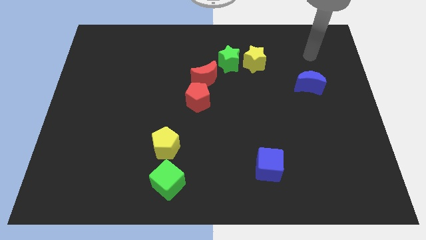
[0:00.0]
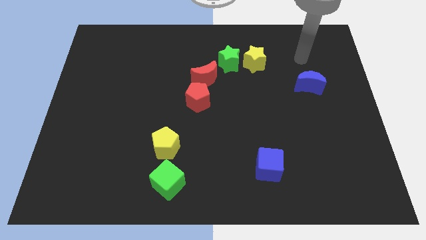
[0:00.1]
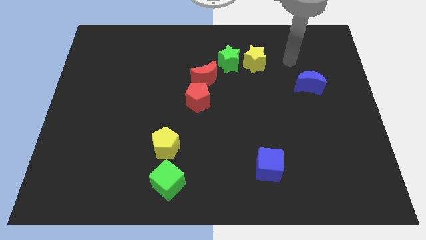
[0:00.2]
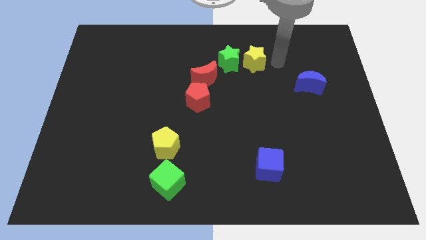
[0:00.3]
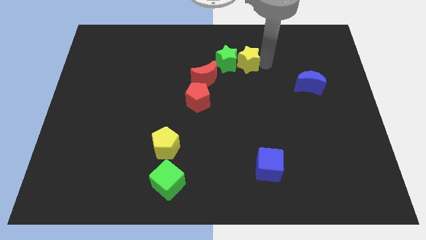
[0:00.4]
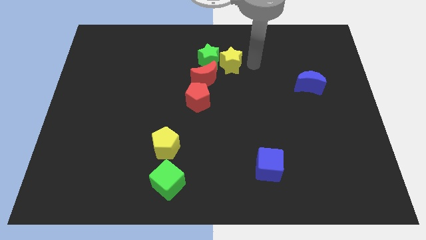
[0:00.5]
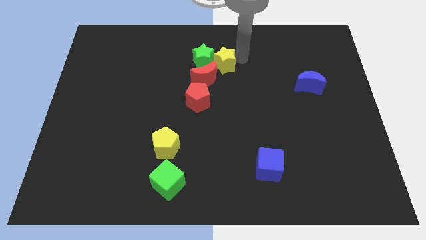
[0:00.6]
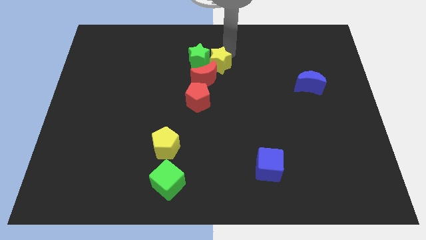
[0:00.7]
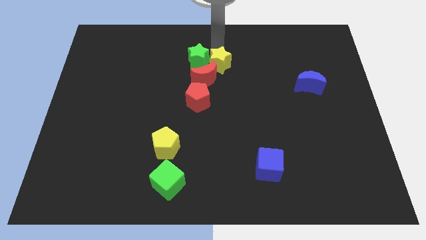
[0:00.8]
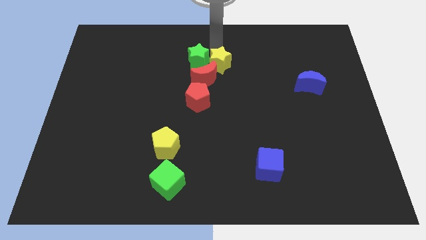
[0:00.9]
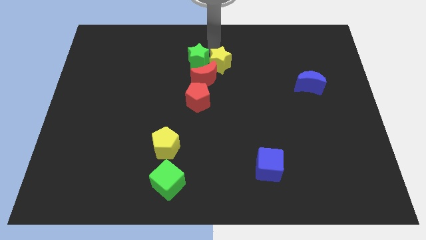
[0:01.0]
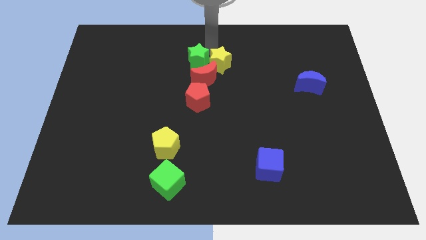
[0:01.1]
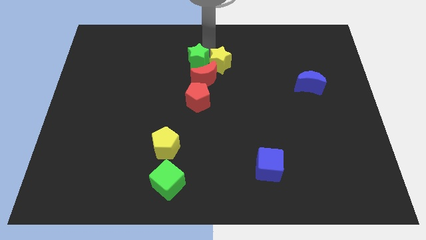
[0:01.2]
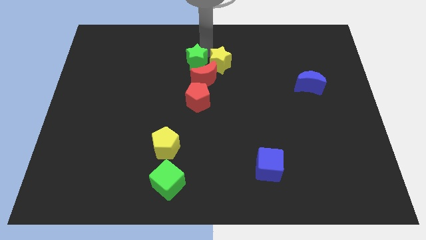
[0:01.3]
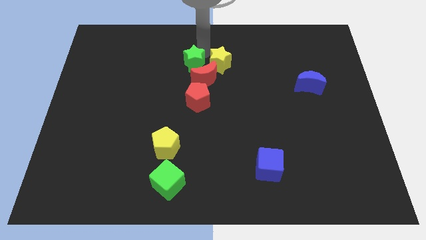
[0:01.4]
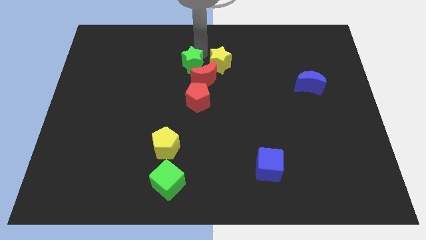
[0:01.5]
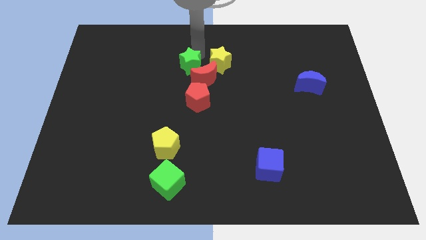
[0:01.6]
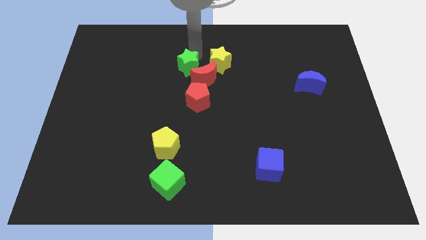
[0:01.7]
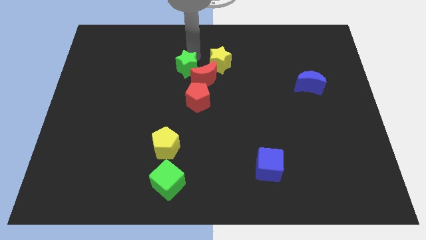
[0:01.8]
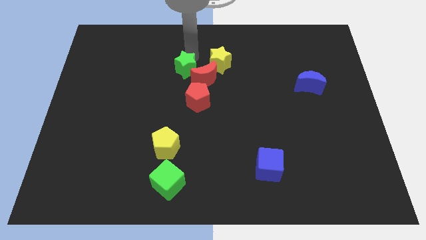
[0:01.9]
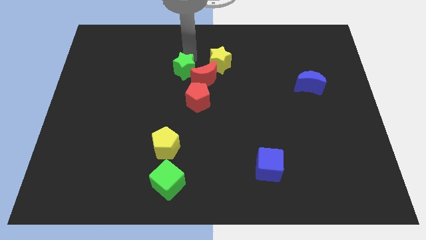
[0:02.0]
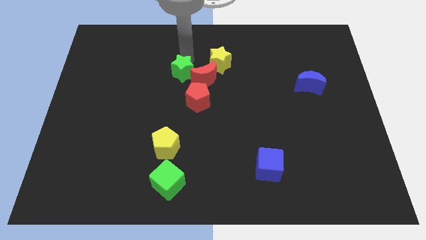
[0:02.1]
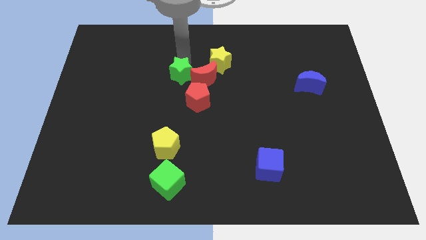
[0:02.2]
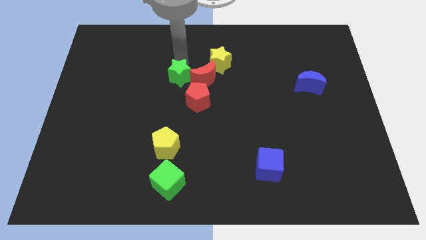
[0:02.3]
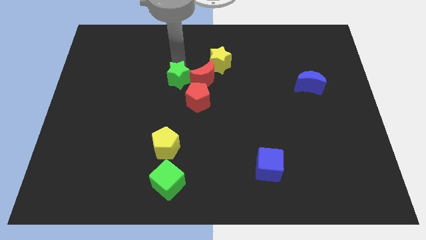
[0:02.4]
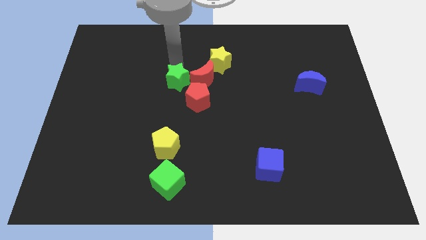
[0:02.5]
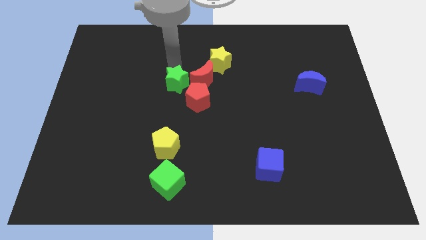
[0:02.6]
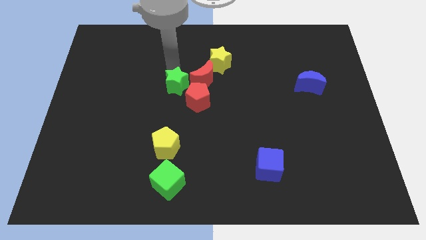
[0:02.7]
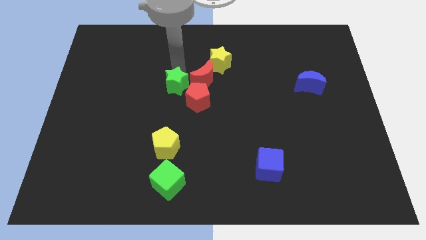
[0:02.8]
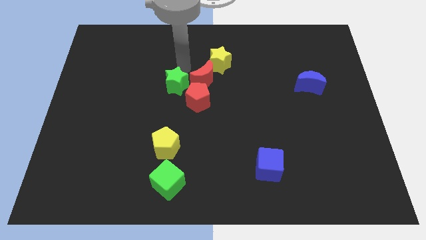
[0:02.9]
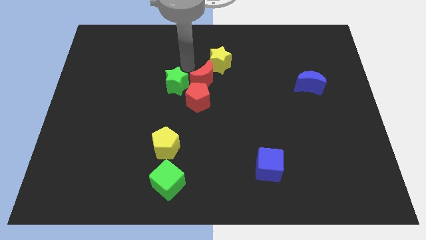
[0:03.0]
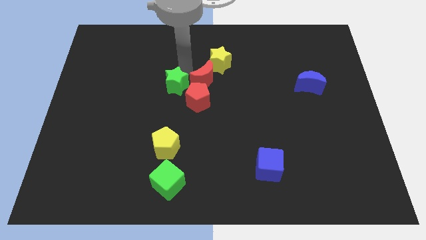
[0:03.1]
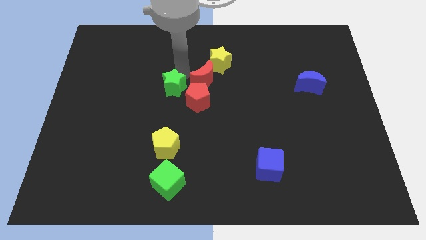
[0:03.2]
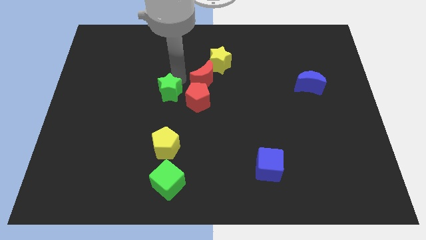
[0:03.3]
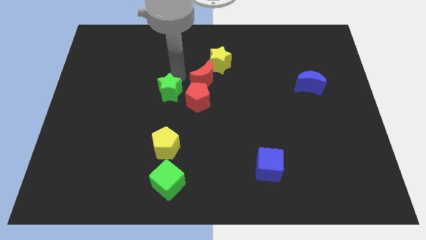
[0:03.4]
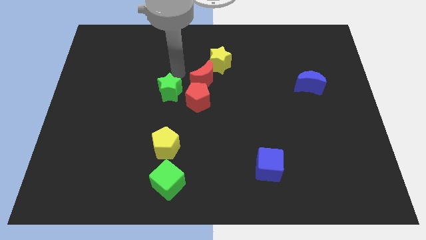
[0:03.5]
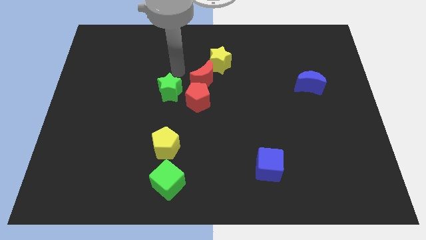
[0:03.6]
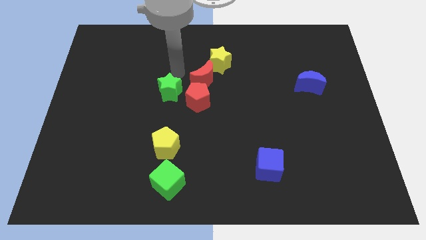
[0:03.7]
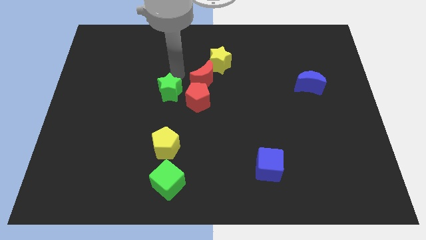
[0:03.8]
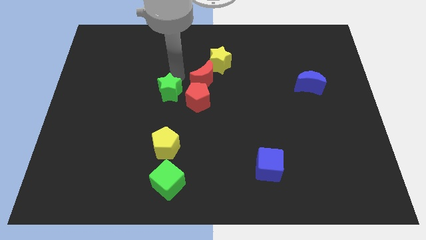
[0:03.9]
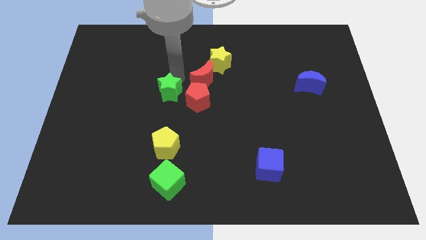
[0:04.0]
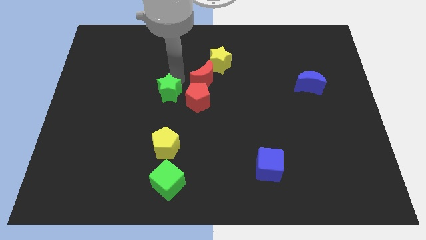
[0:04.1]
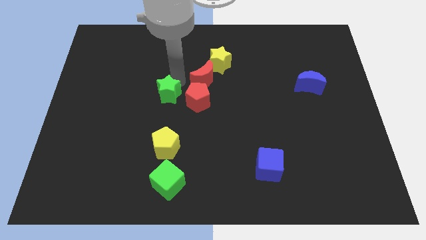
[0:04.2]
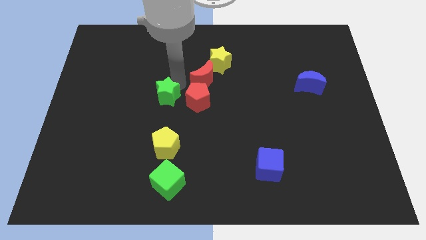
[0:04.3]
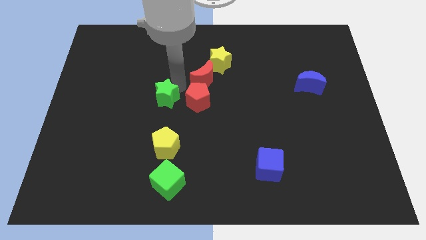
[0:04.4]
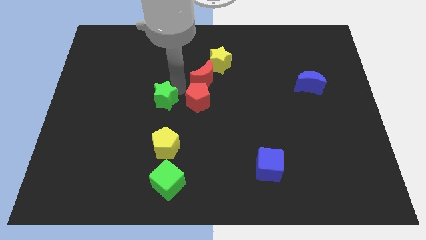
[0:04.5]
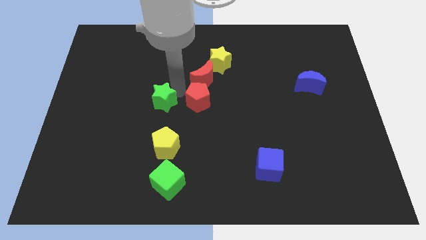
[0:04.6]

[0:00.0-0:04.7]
slide the green star down and left diagonally

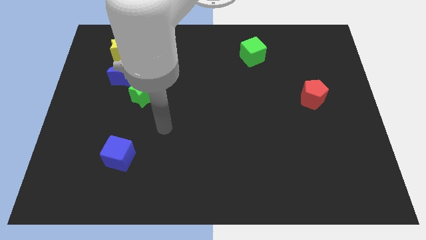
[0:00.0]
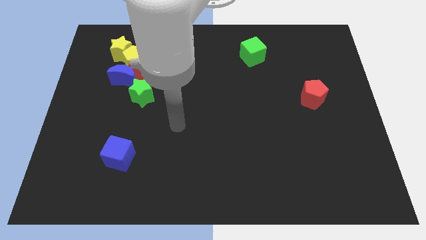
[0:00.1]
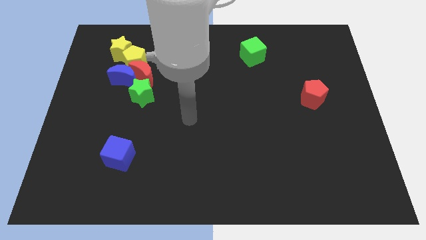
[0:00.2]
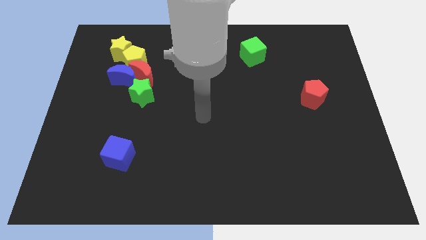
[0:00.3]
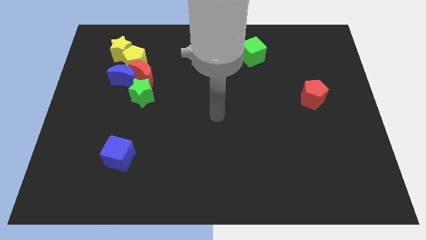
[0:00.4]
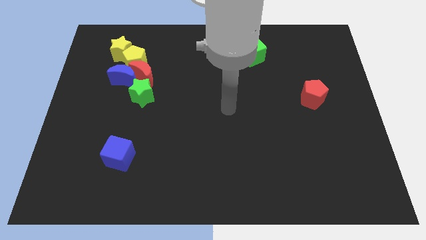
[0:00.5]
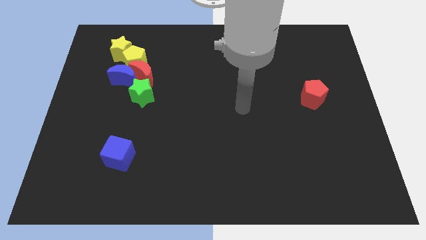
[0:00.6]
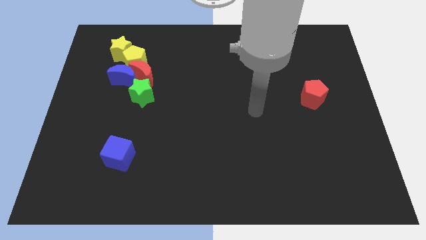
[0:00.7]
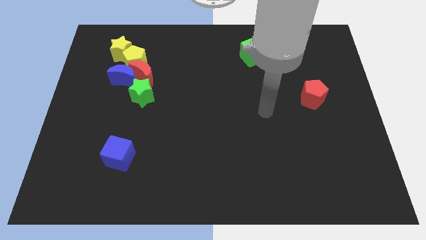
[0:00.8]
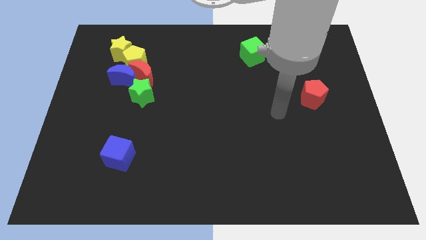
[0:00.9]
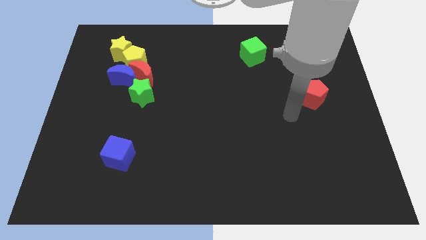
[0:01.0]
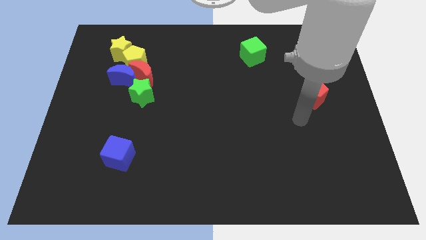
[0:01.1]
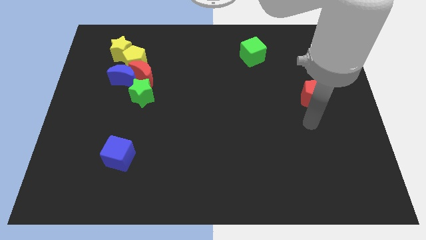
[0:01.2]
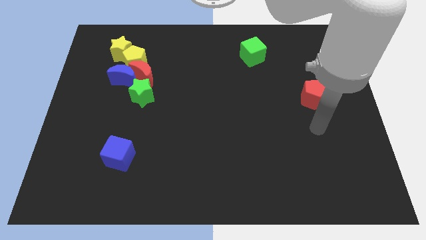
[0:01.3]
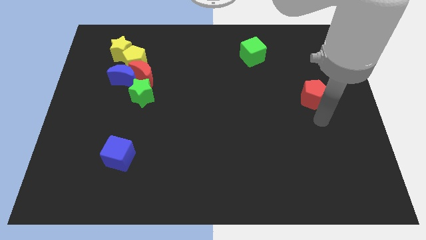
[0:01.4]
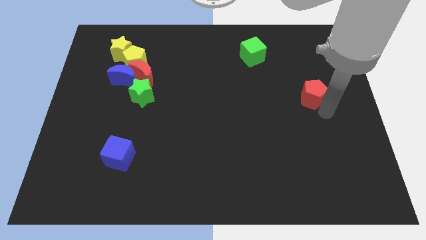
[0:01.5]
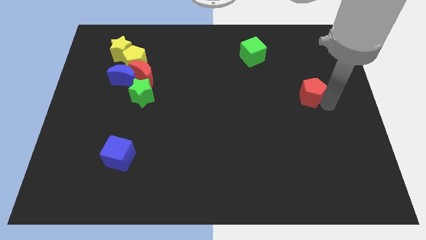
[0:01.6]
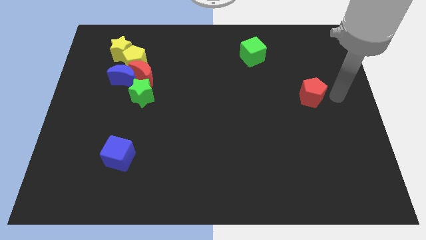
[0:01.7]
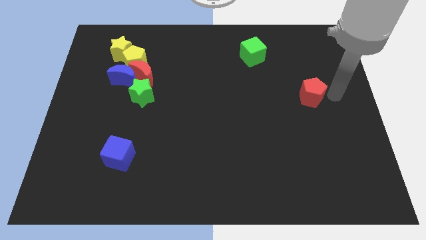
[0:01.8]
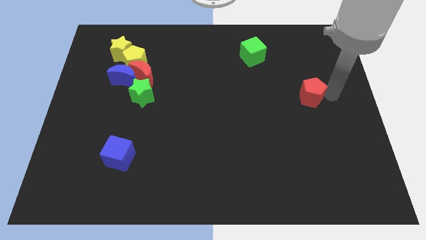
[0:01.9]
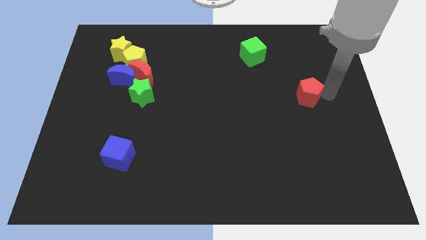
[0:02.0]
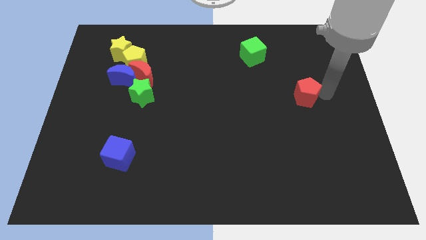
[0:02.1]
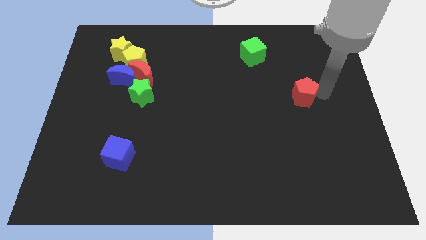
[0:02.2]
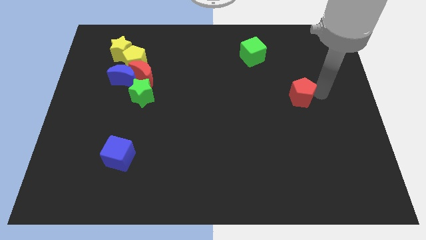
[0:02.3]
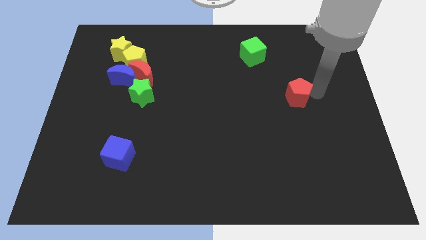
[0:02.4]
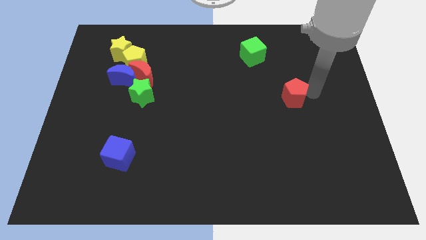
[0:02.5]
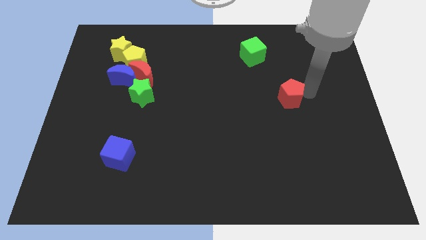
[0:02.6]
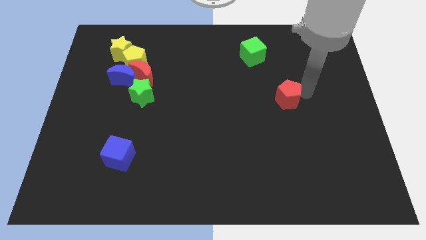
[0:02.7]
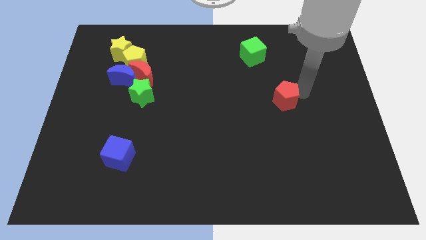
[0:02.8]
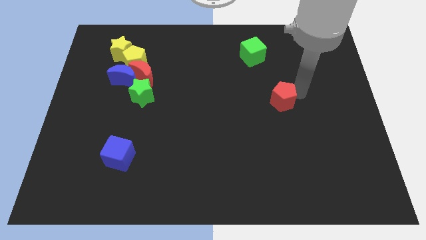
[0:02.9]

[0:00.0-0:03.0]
slightly push the red pentagon to the left

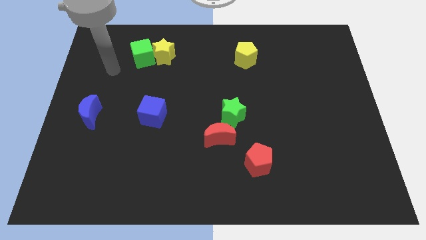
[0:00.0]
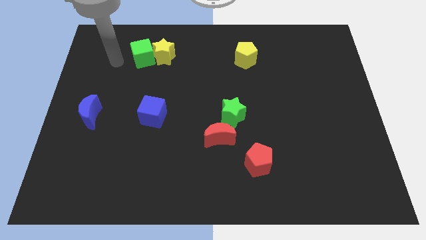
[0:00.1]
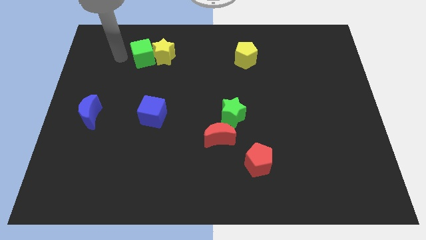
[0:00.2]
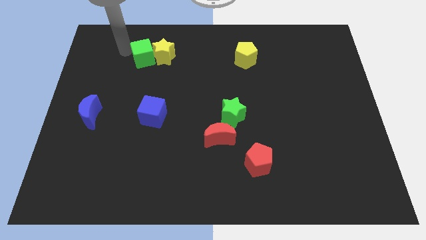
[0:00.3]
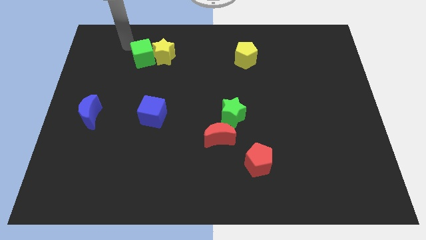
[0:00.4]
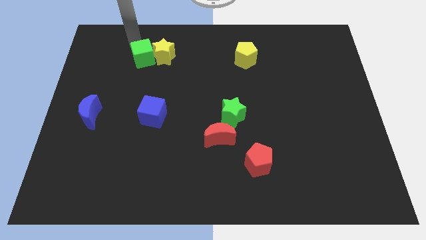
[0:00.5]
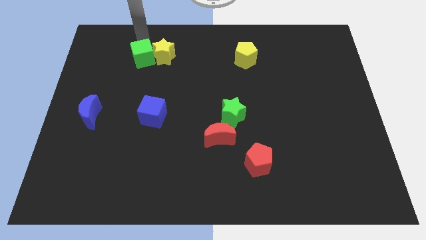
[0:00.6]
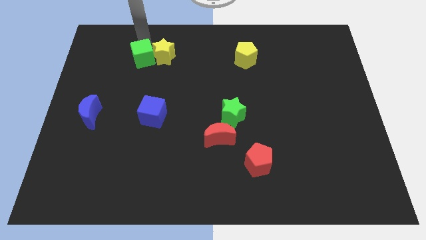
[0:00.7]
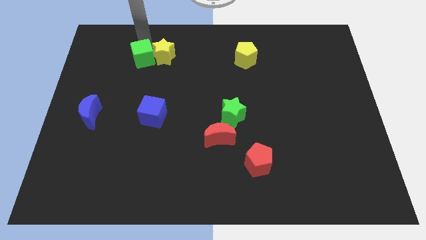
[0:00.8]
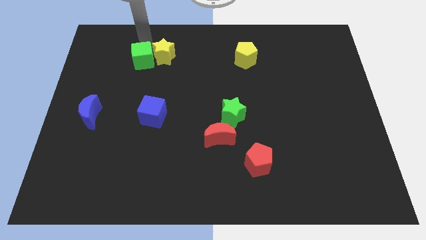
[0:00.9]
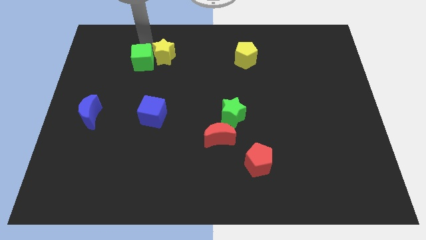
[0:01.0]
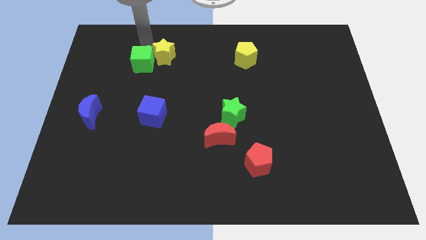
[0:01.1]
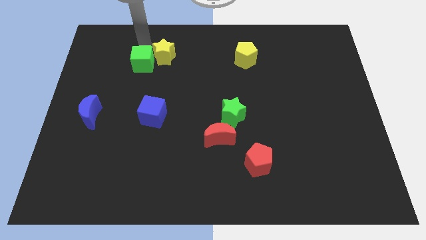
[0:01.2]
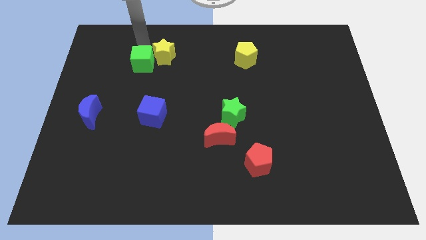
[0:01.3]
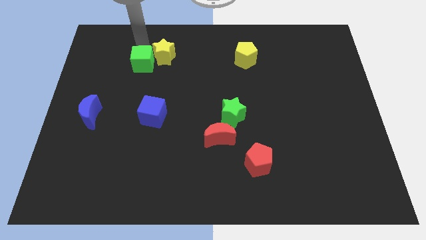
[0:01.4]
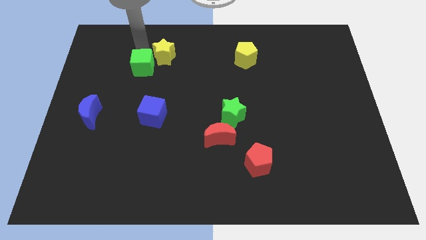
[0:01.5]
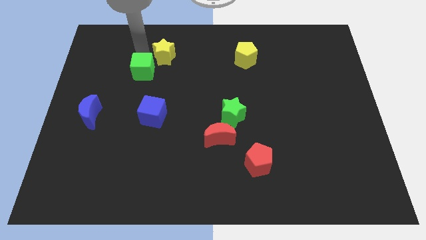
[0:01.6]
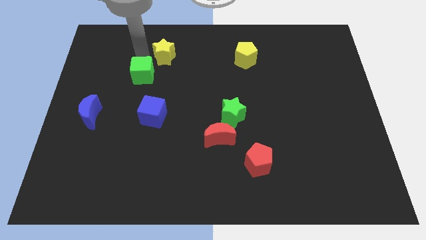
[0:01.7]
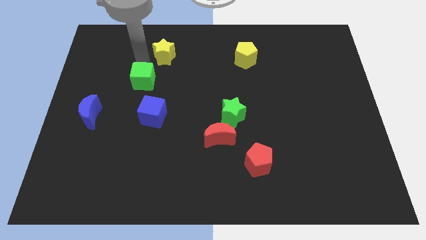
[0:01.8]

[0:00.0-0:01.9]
move the green cube somewhat downwards
